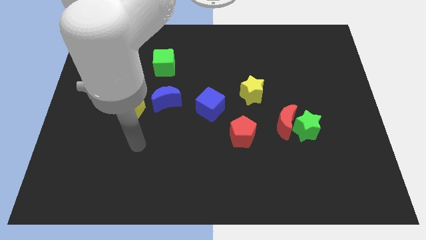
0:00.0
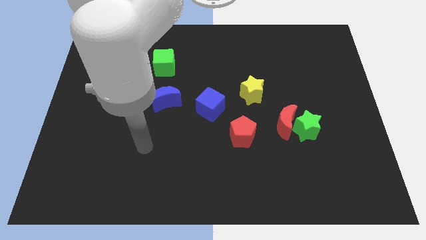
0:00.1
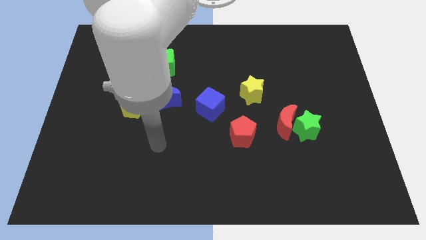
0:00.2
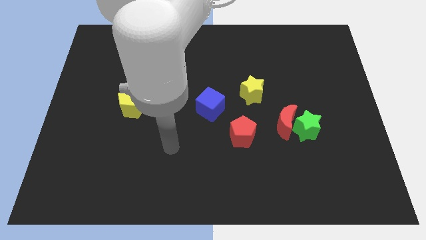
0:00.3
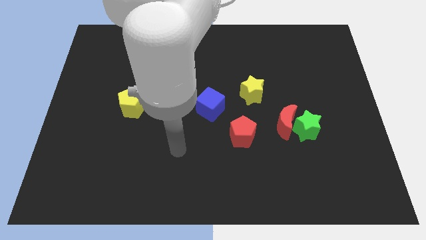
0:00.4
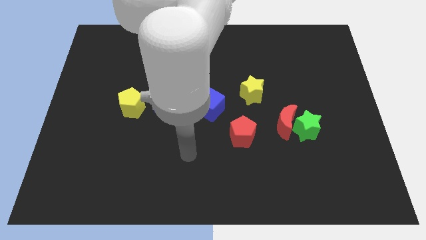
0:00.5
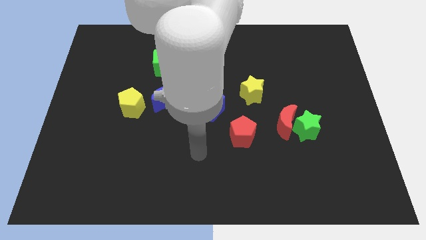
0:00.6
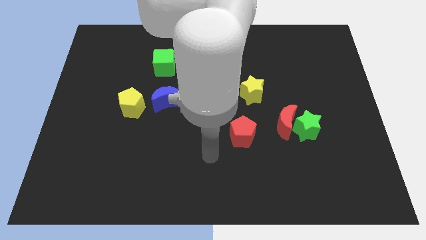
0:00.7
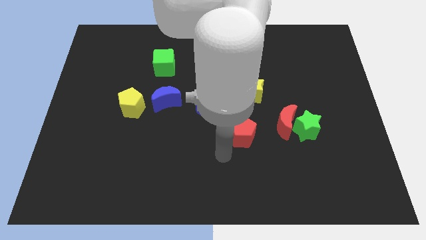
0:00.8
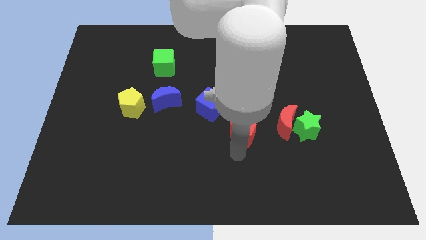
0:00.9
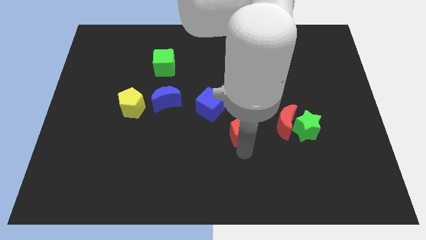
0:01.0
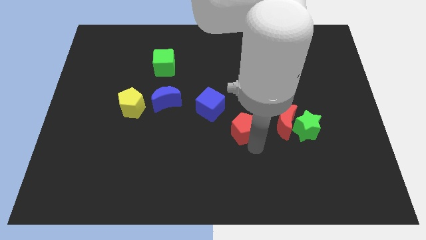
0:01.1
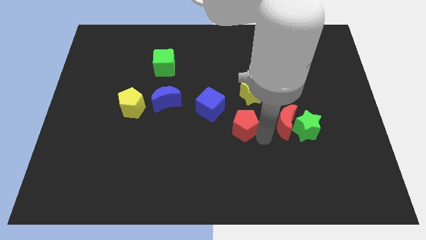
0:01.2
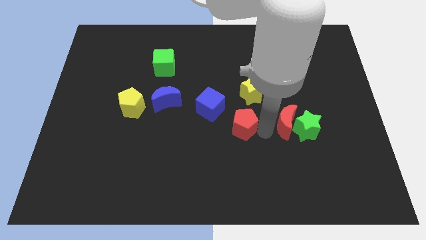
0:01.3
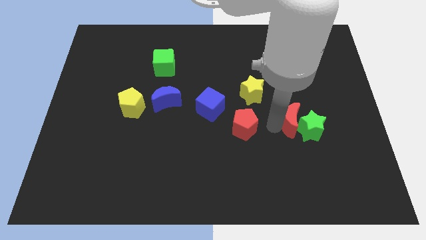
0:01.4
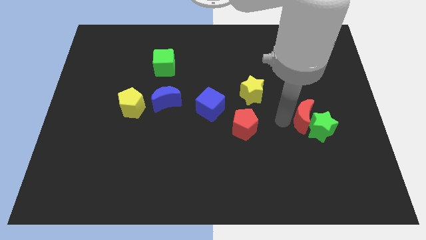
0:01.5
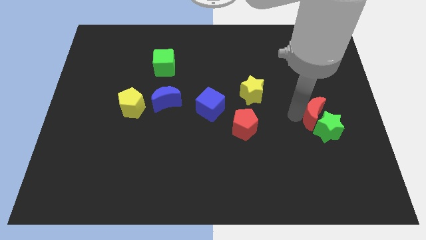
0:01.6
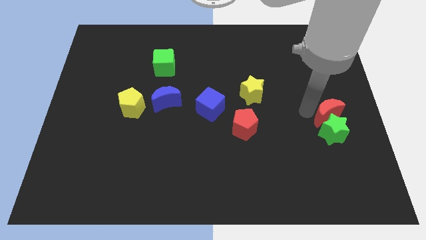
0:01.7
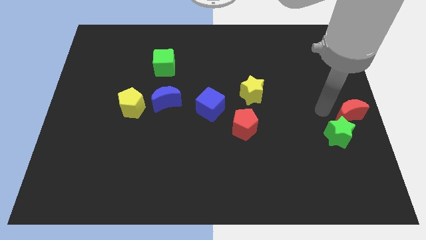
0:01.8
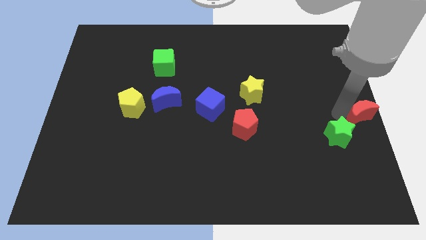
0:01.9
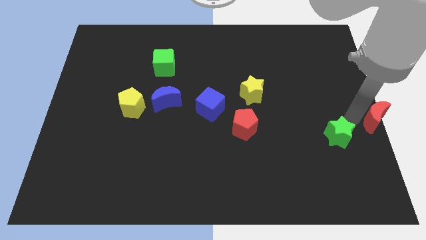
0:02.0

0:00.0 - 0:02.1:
separate the green star from the red moon

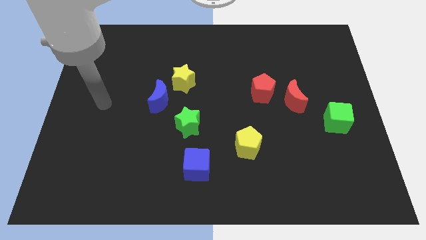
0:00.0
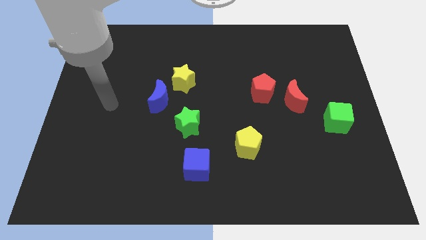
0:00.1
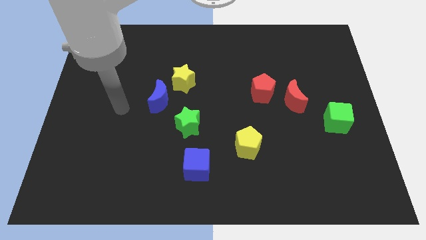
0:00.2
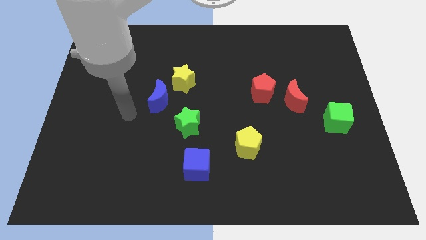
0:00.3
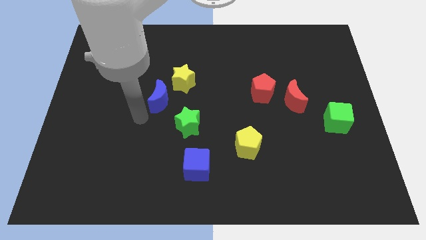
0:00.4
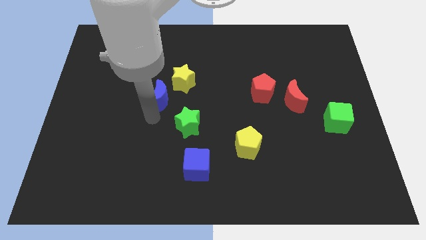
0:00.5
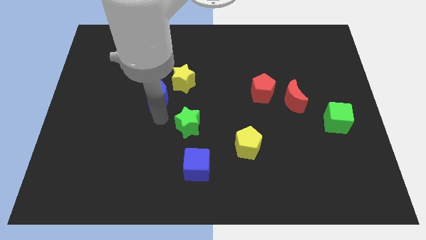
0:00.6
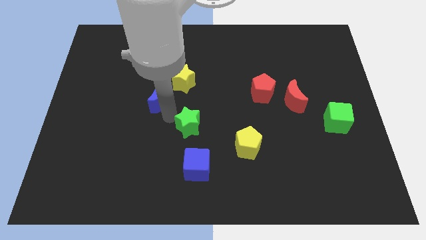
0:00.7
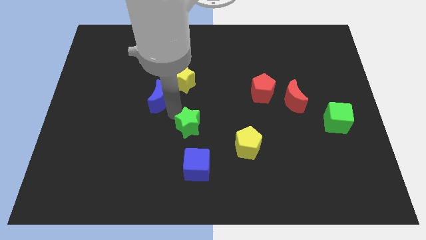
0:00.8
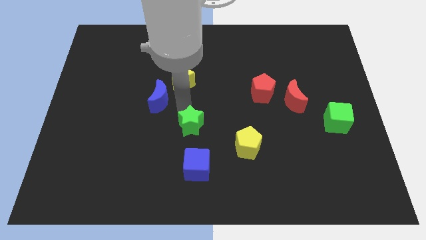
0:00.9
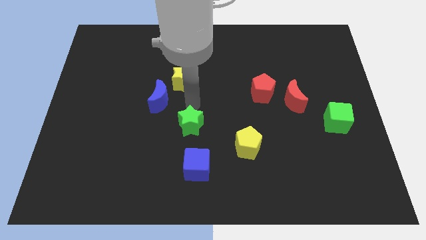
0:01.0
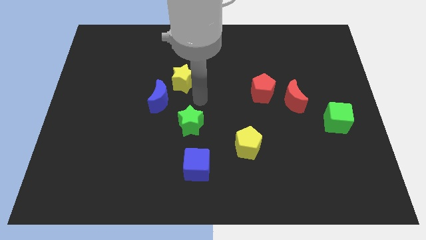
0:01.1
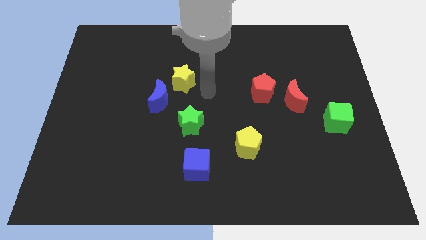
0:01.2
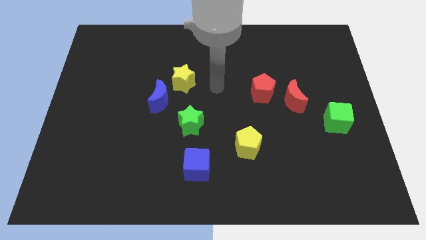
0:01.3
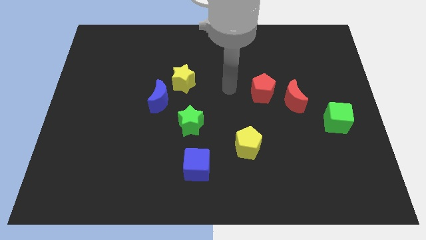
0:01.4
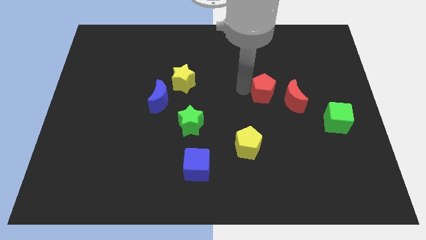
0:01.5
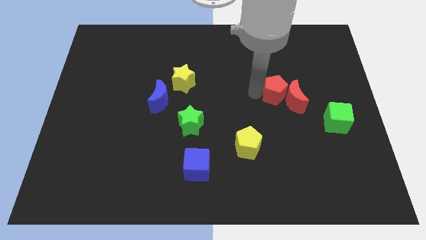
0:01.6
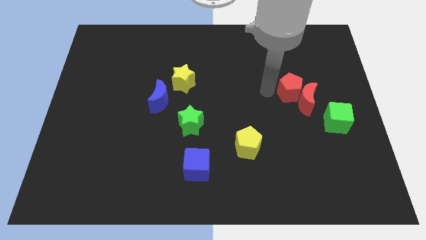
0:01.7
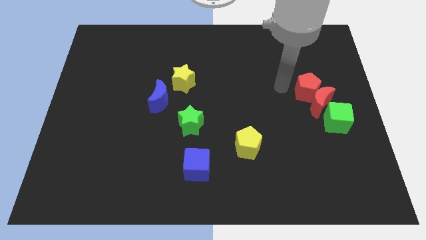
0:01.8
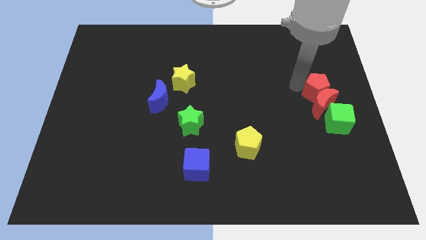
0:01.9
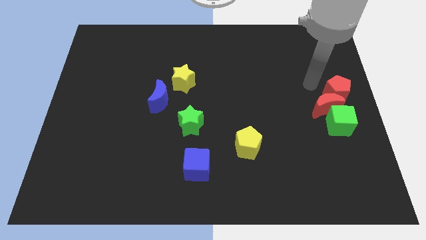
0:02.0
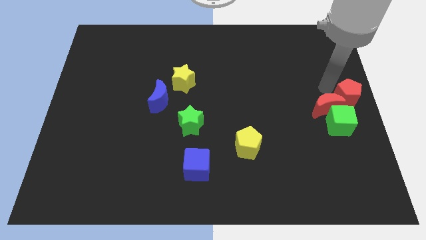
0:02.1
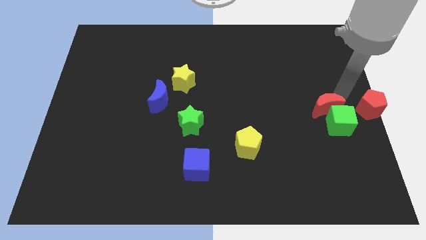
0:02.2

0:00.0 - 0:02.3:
separate the red moon from the red pentagon

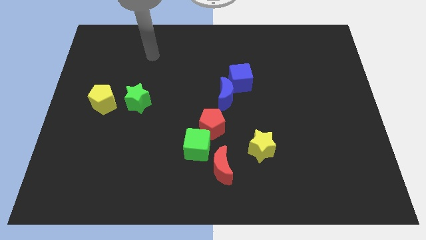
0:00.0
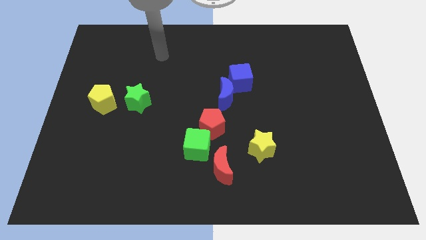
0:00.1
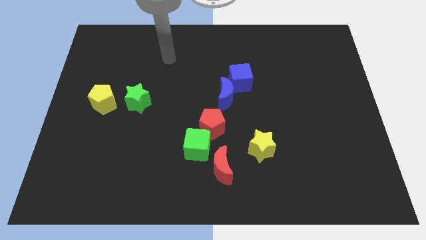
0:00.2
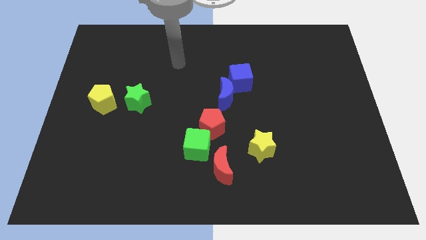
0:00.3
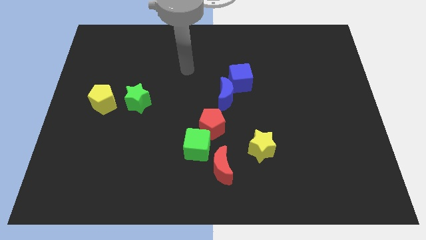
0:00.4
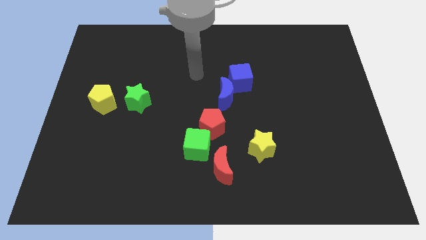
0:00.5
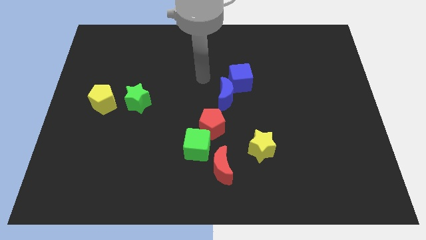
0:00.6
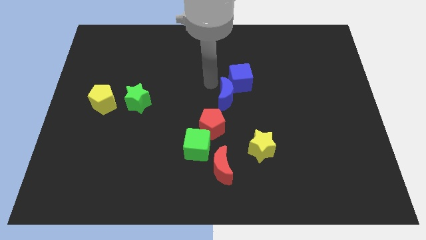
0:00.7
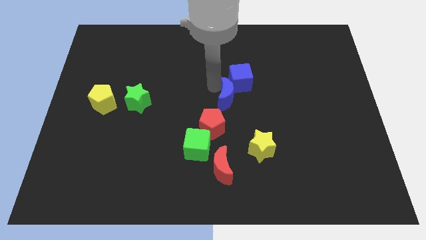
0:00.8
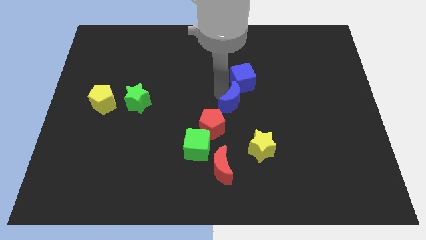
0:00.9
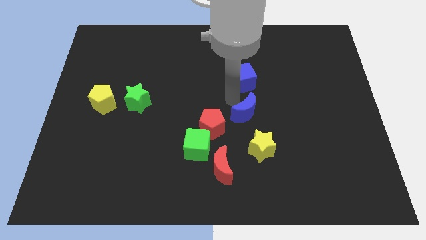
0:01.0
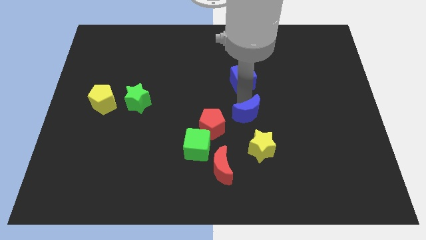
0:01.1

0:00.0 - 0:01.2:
pull the blue cube apart from the blue moon

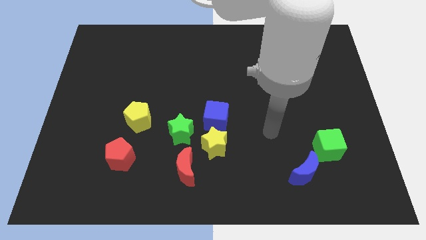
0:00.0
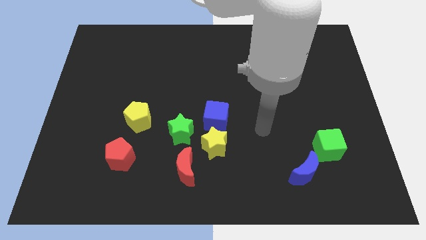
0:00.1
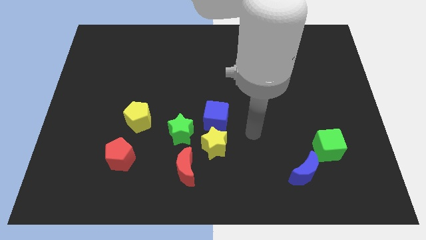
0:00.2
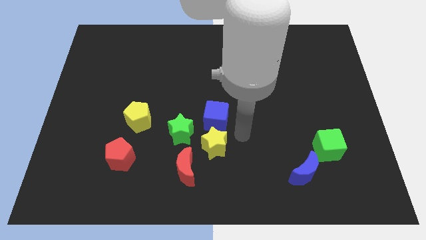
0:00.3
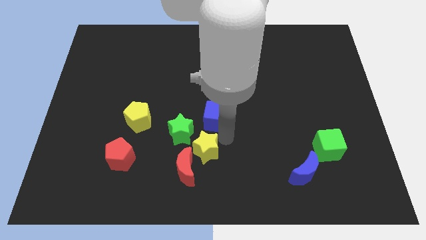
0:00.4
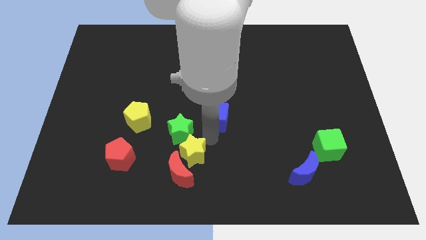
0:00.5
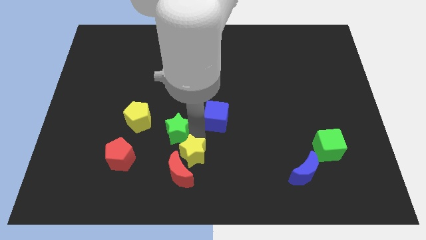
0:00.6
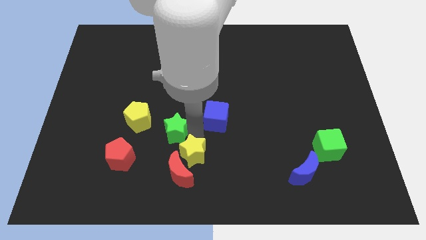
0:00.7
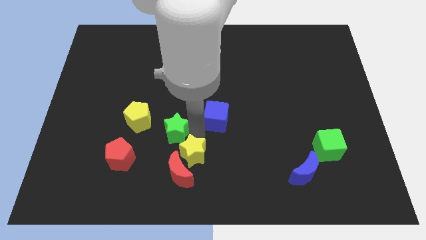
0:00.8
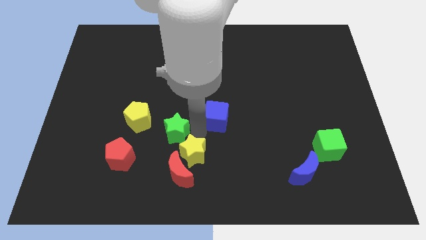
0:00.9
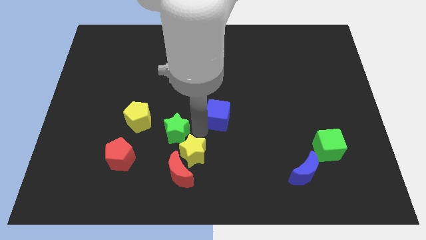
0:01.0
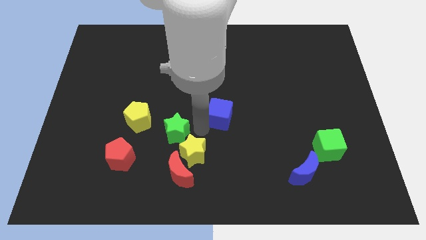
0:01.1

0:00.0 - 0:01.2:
pull the blue cube apart from the yellow star and green star

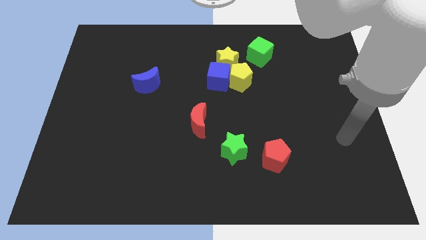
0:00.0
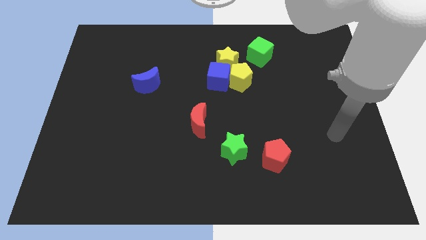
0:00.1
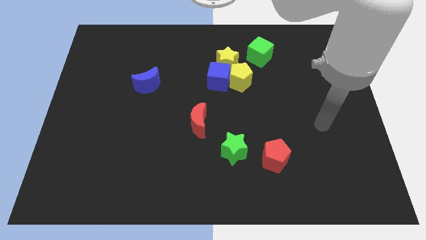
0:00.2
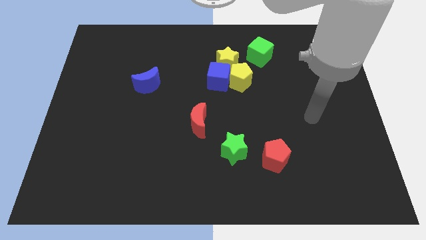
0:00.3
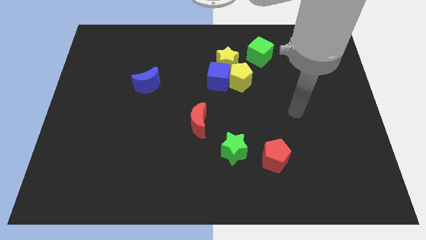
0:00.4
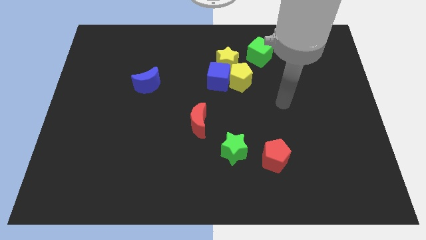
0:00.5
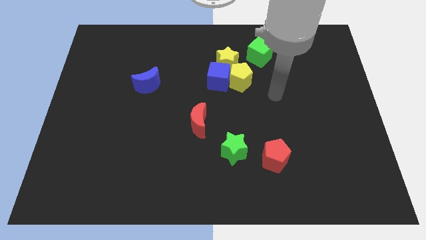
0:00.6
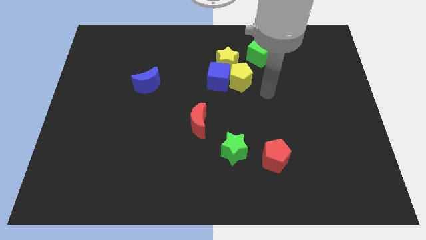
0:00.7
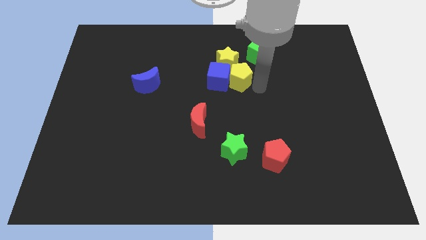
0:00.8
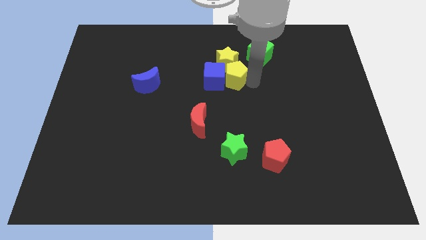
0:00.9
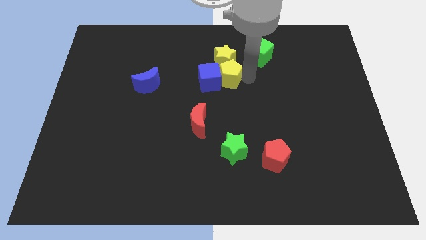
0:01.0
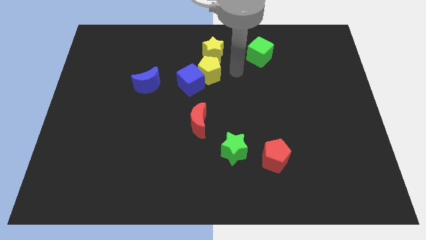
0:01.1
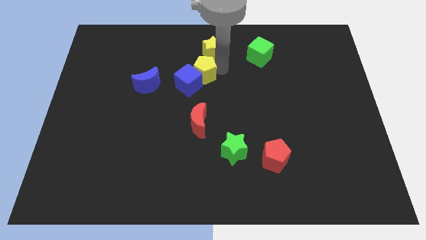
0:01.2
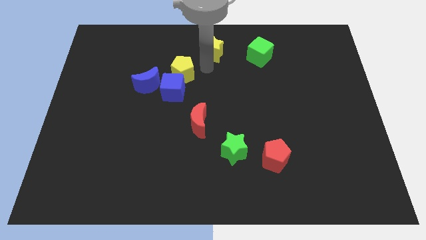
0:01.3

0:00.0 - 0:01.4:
separate the blue cube from the yellow pentagon and yellow star

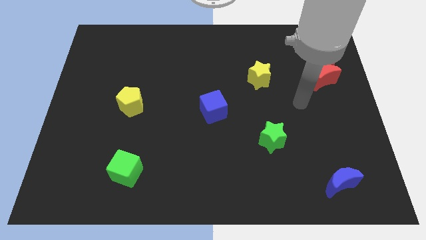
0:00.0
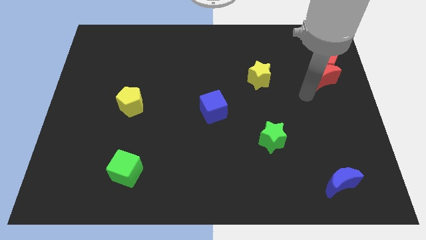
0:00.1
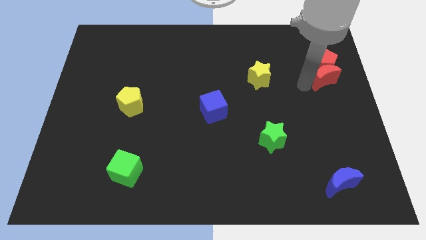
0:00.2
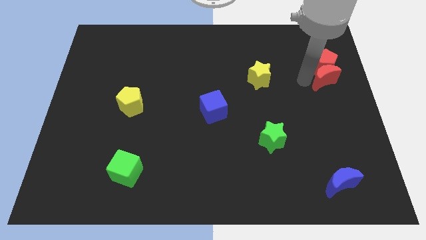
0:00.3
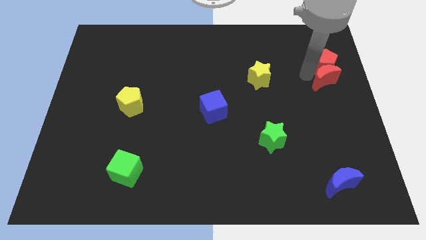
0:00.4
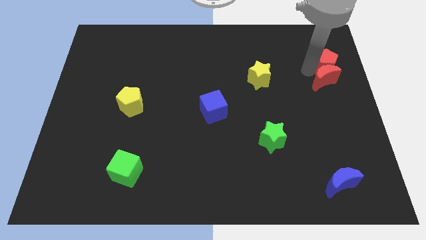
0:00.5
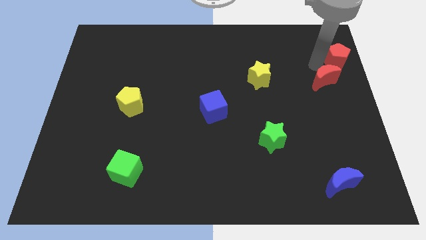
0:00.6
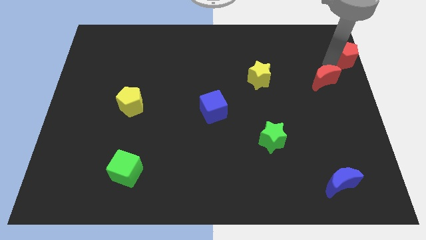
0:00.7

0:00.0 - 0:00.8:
move the red moon away from the red pentagon

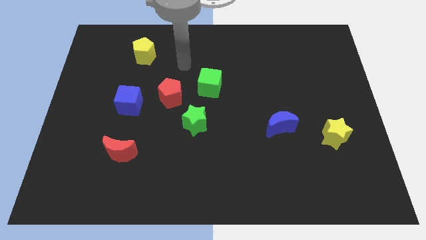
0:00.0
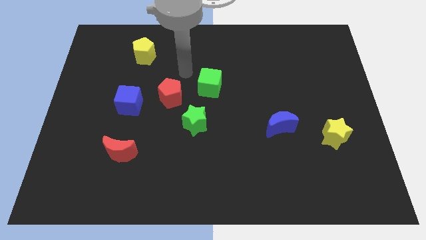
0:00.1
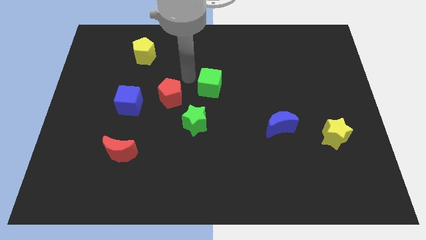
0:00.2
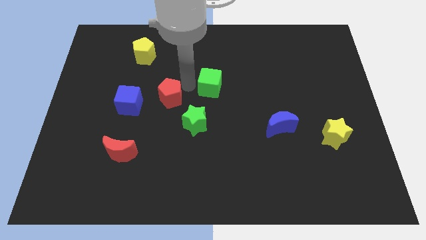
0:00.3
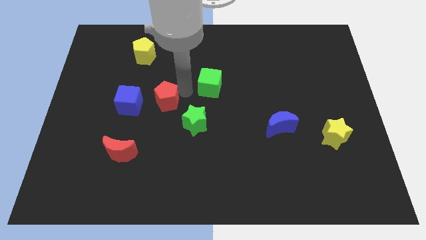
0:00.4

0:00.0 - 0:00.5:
move the green cube away from the red pentagon
